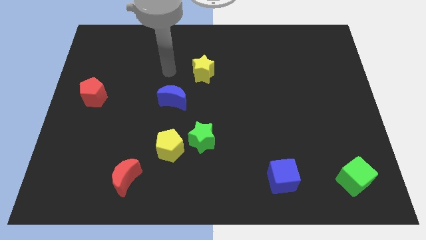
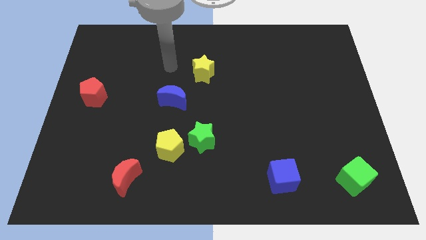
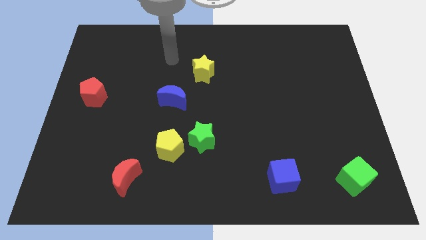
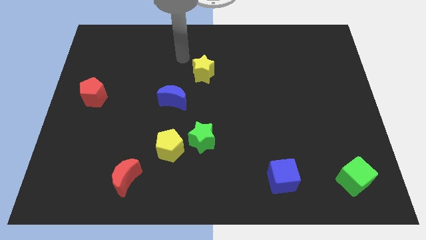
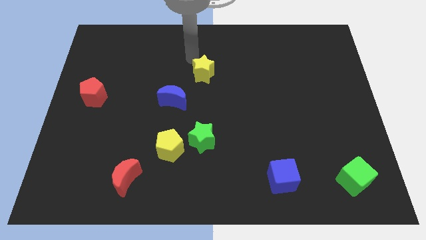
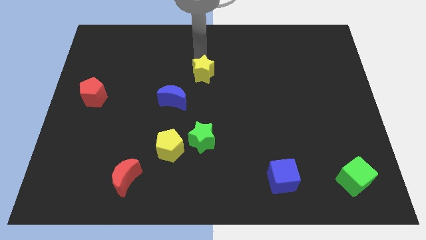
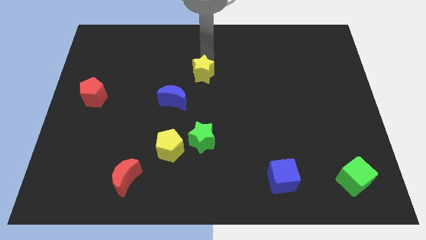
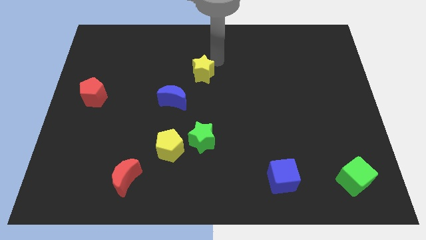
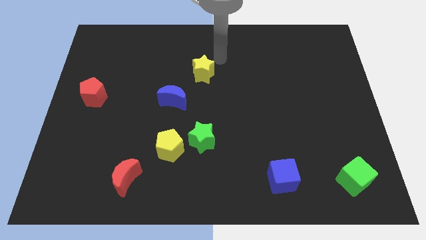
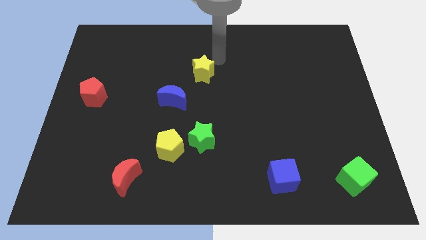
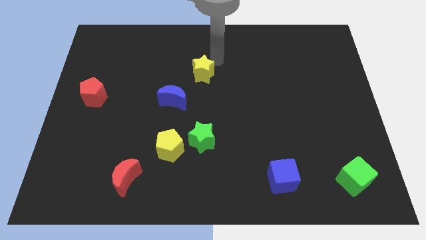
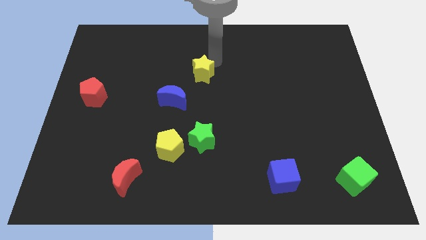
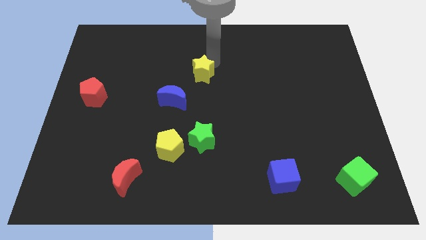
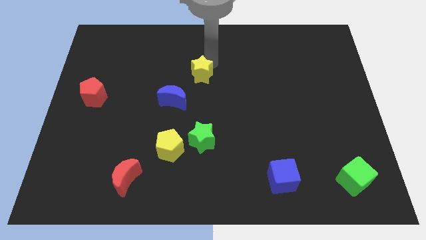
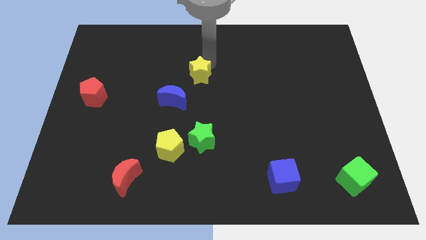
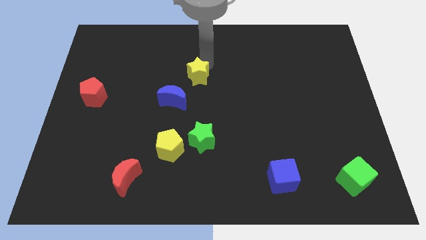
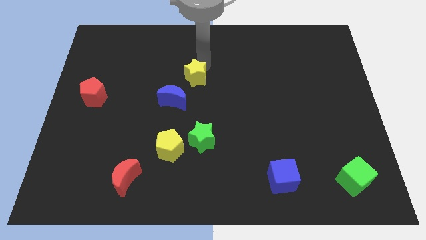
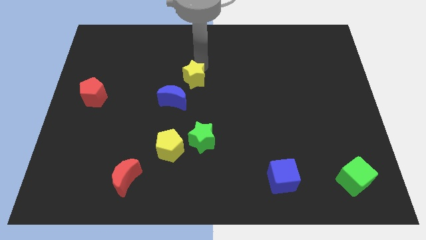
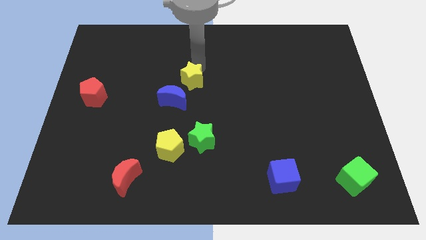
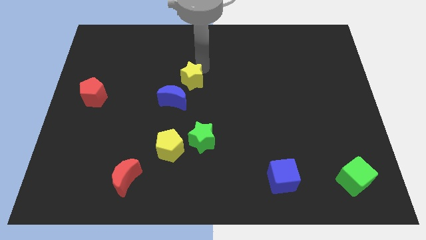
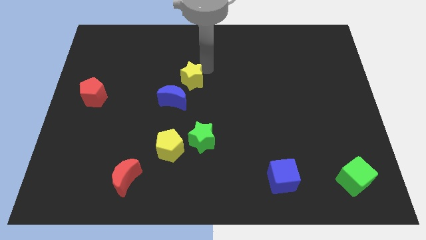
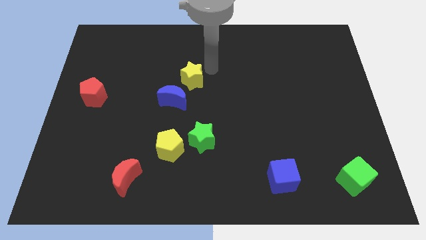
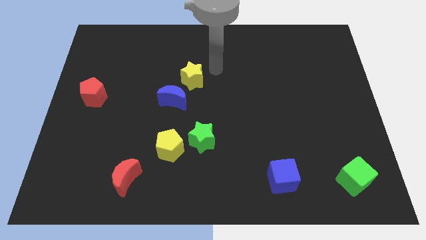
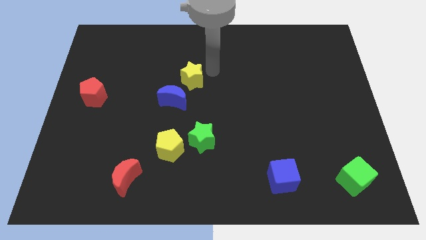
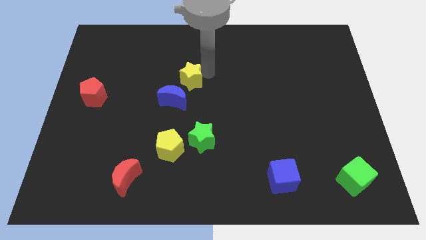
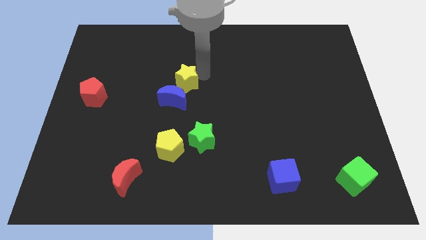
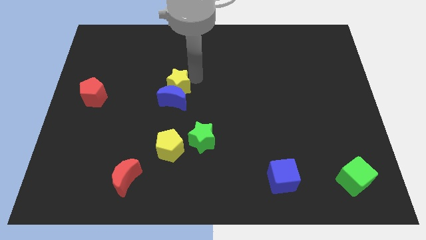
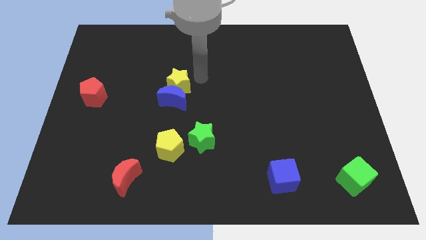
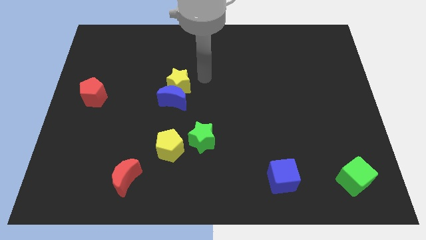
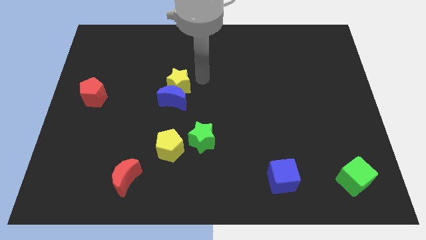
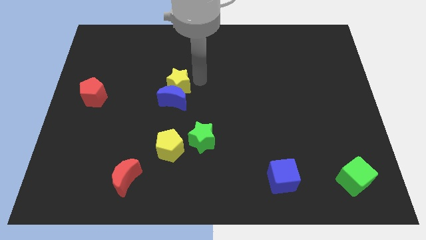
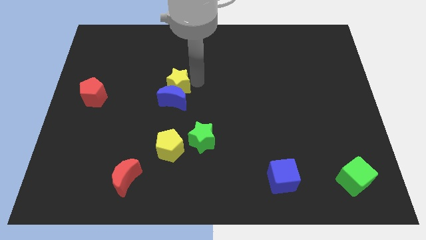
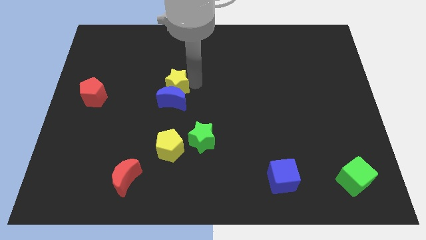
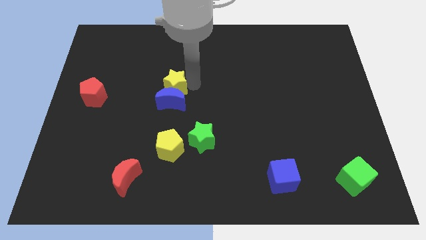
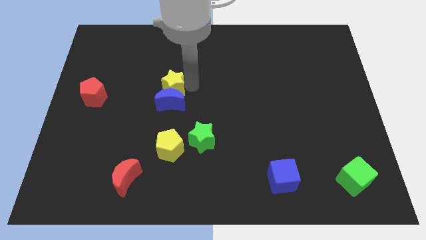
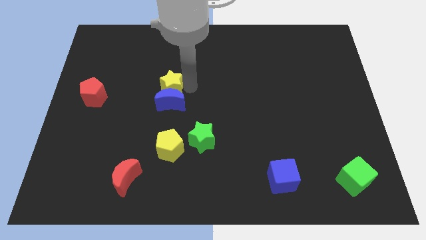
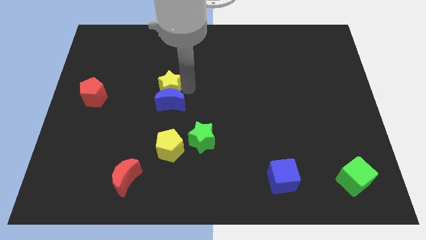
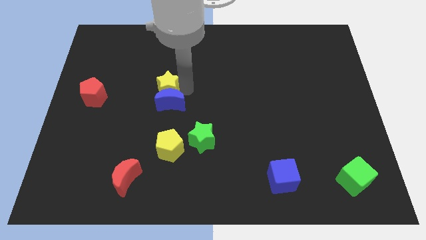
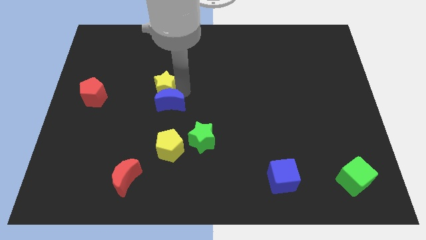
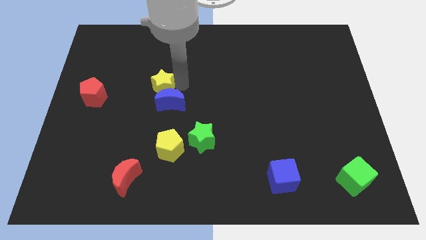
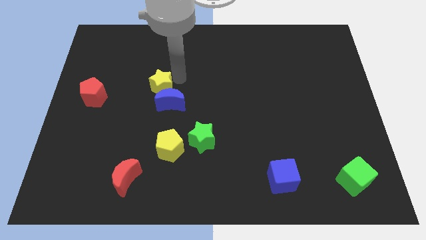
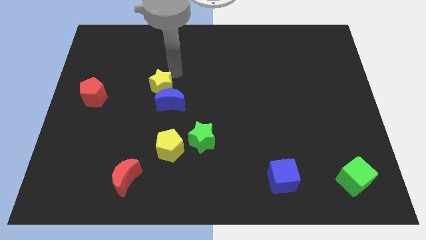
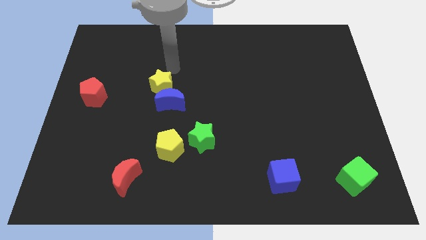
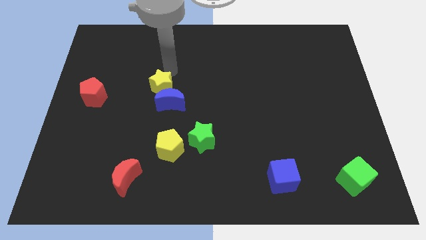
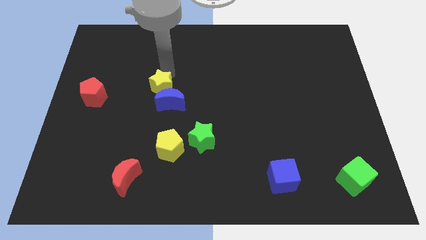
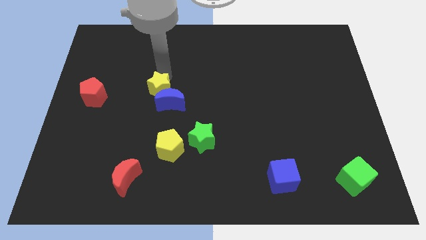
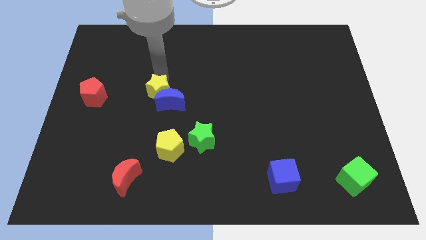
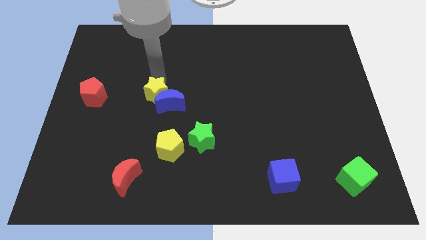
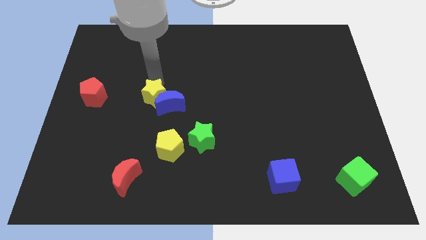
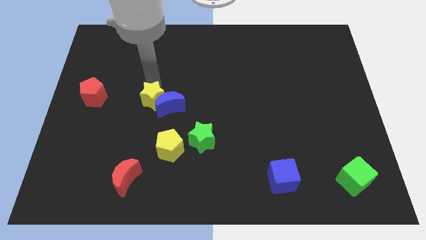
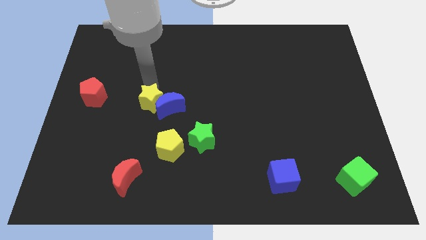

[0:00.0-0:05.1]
move the yellow star diagonally down and to the left of the blue moon

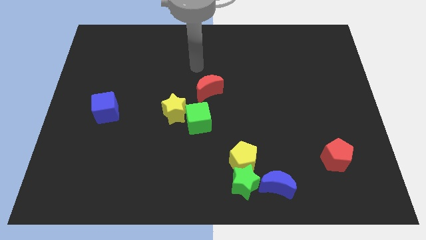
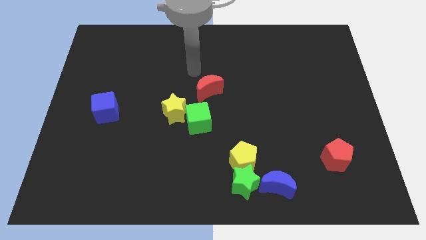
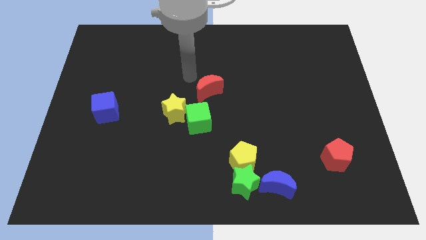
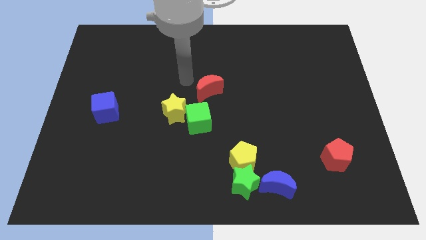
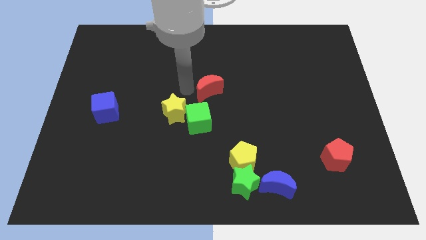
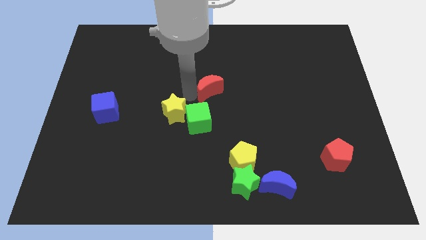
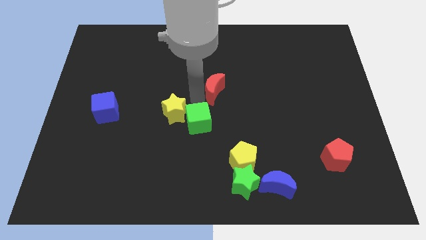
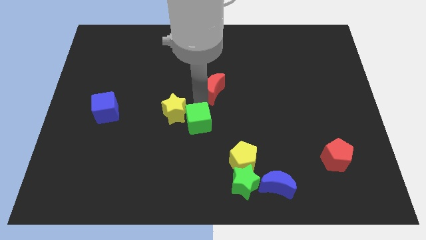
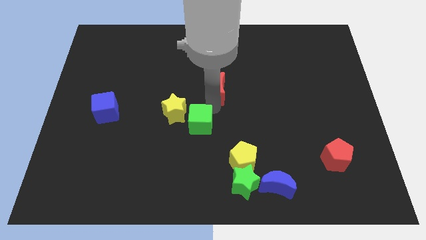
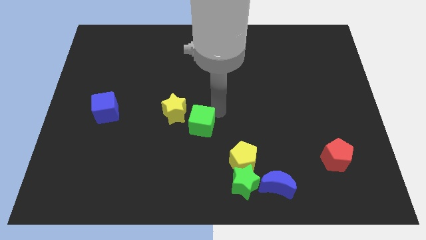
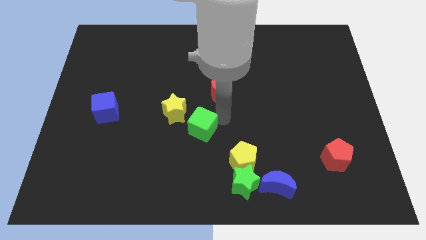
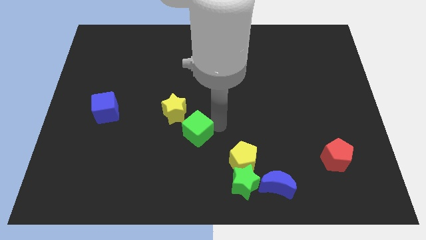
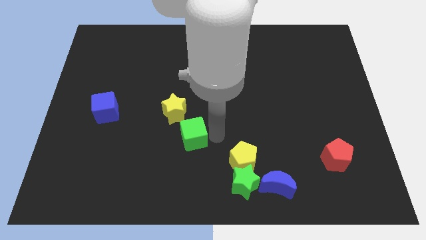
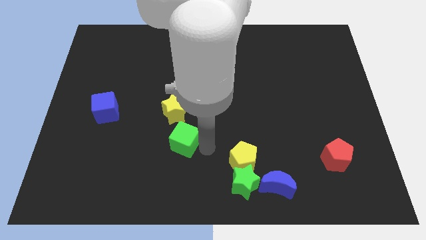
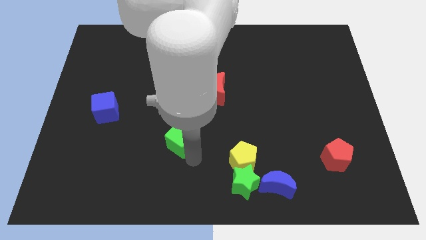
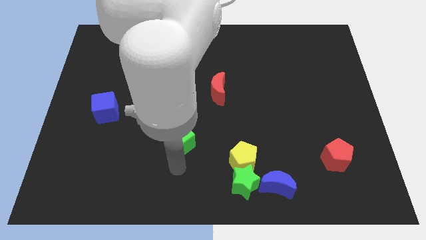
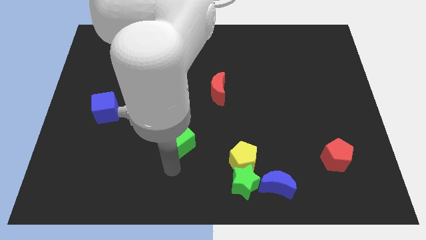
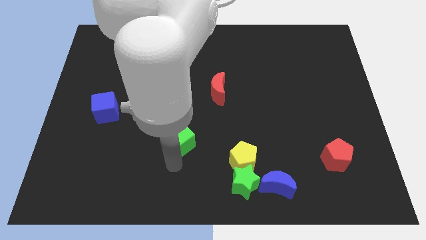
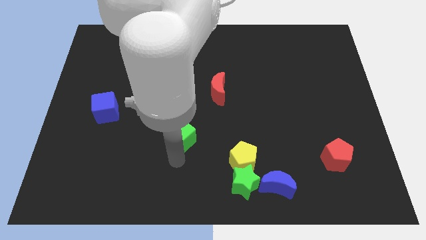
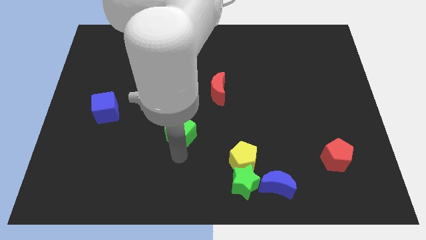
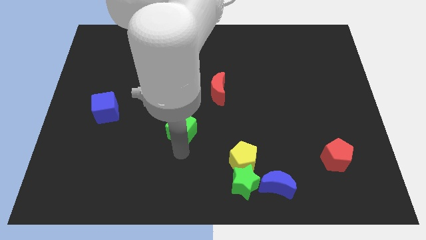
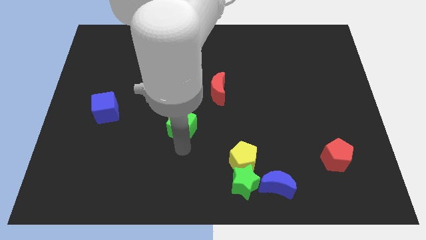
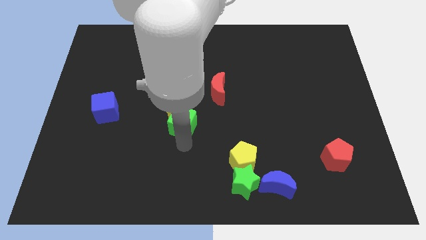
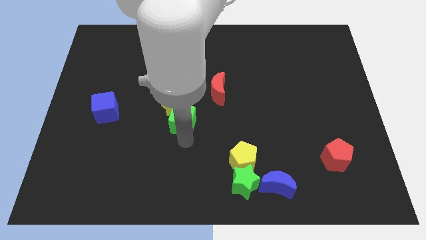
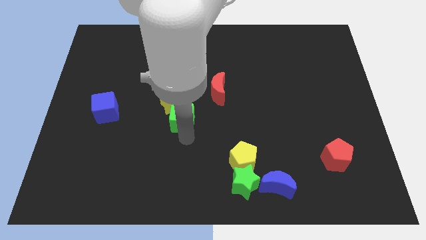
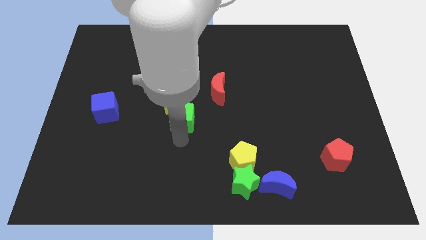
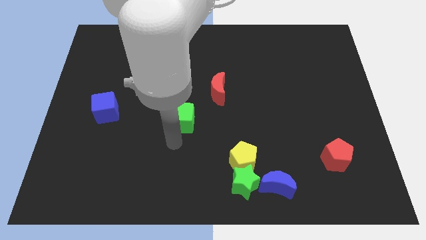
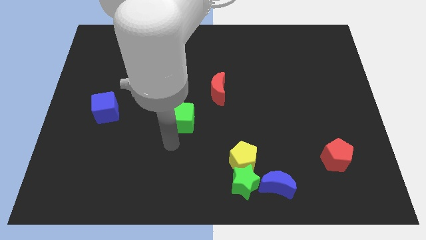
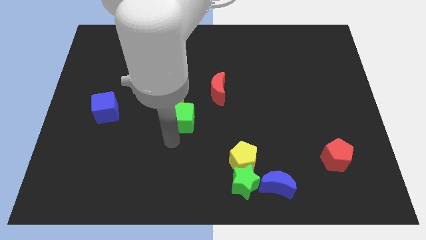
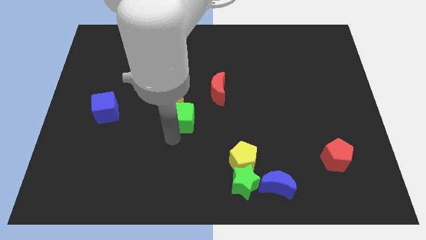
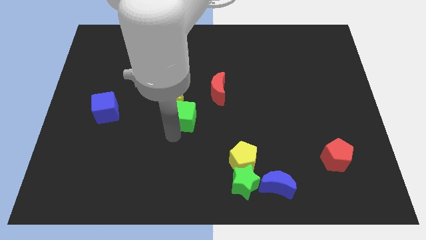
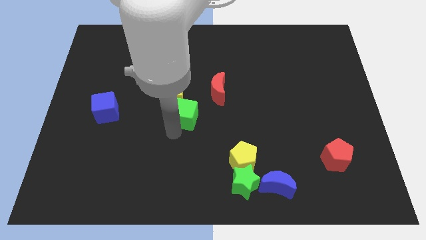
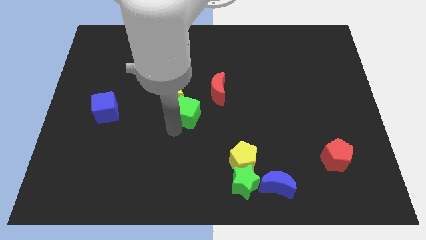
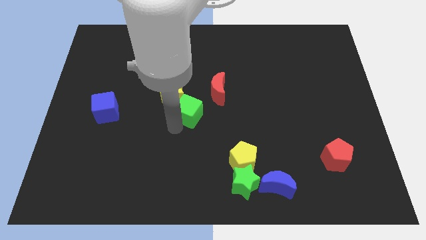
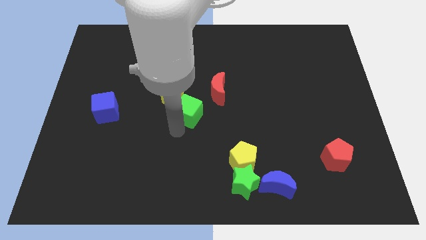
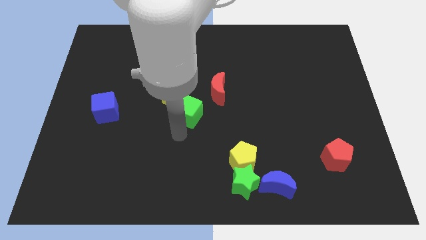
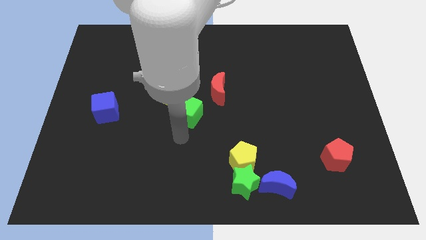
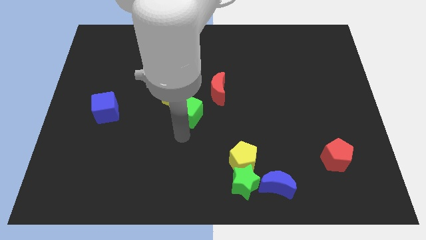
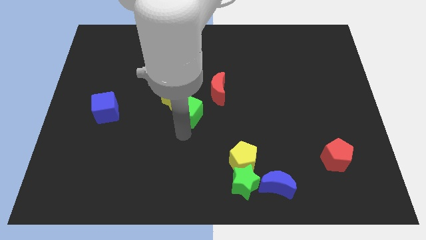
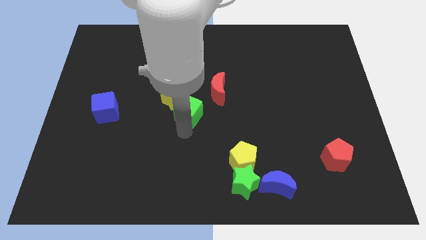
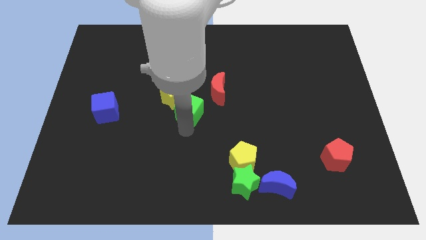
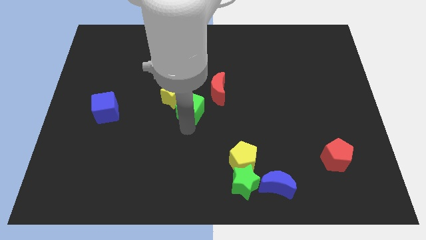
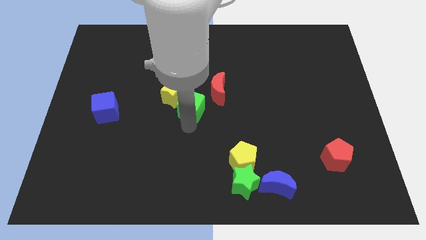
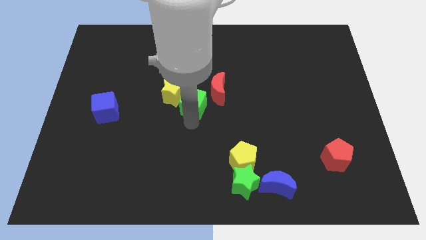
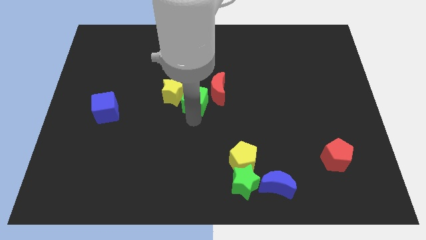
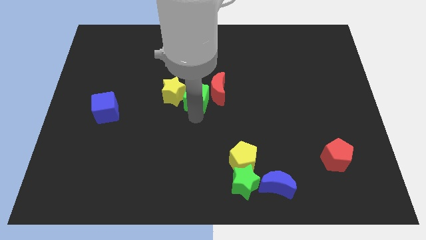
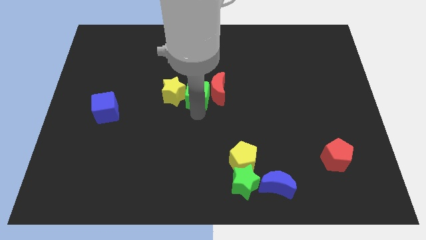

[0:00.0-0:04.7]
slide the green cube to the top left of the red moon
